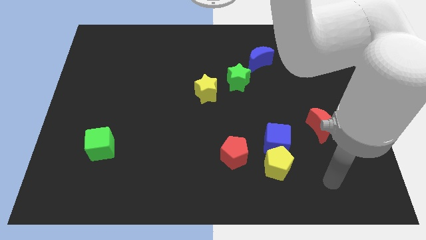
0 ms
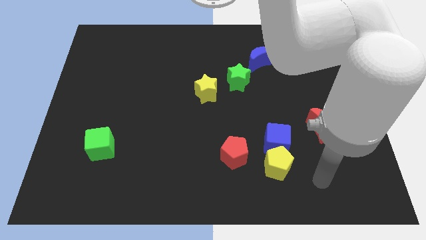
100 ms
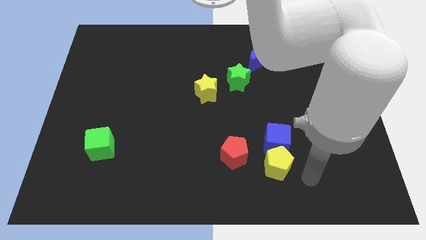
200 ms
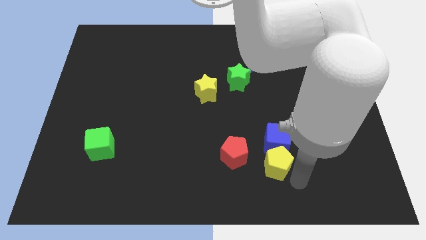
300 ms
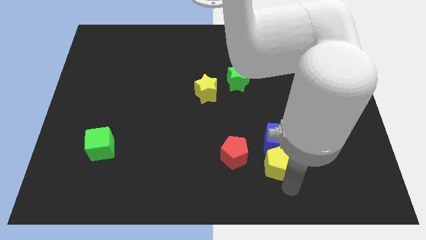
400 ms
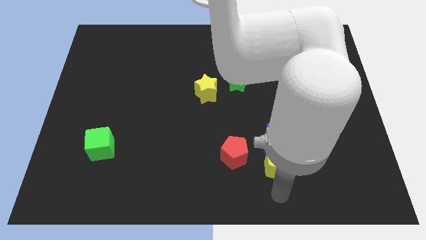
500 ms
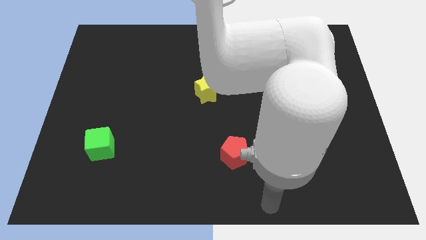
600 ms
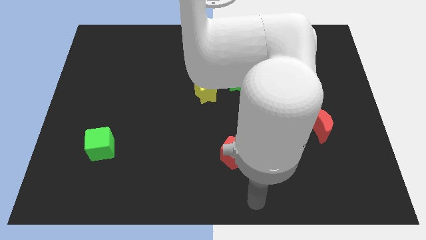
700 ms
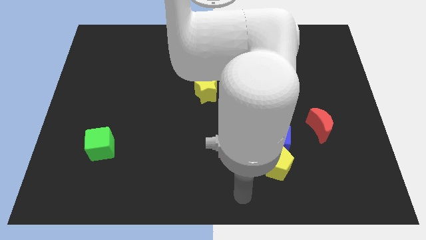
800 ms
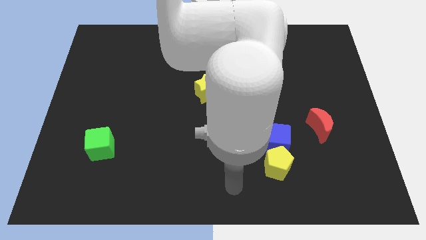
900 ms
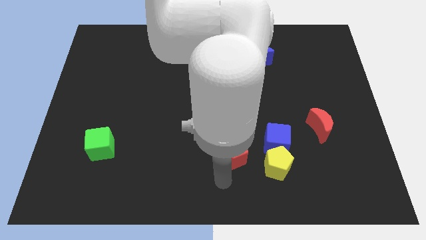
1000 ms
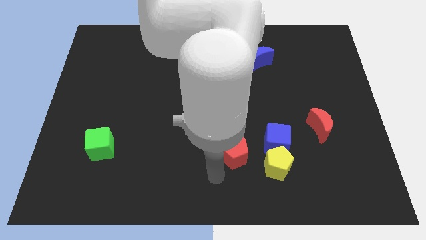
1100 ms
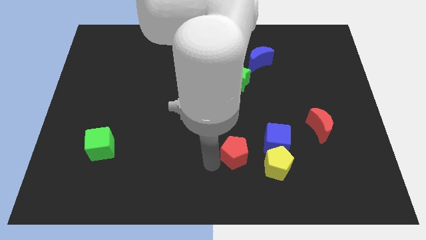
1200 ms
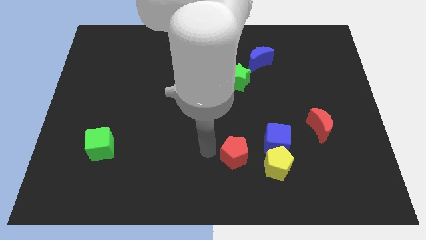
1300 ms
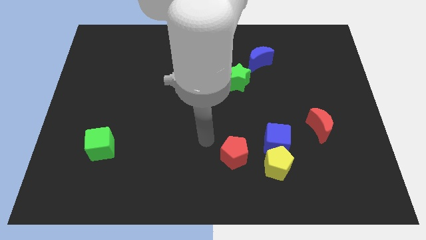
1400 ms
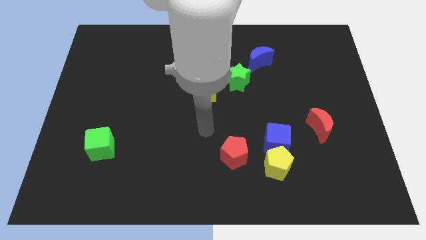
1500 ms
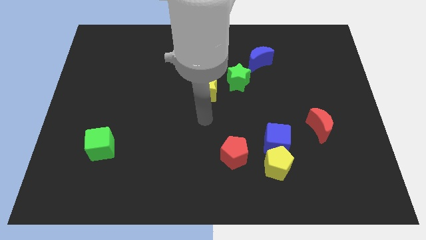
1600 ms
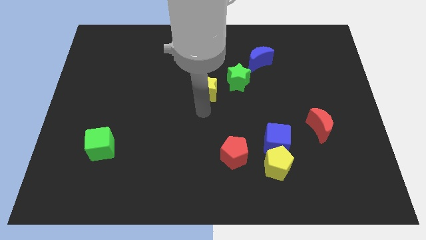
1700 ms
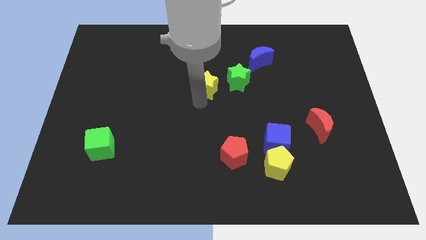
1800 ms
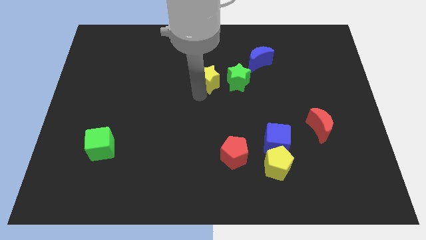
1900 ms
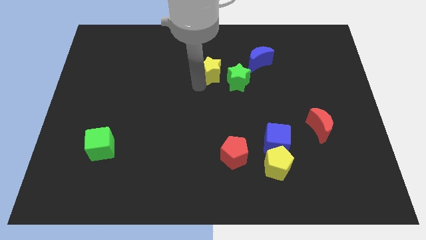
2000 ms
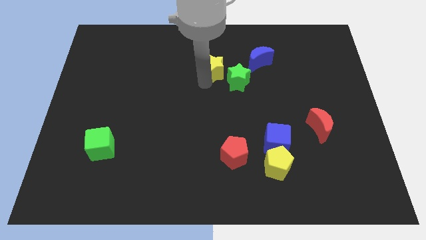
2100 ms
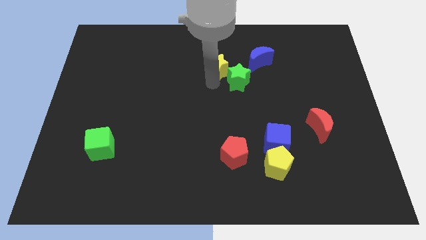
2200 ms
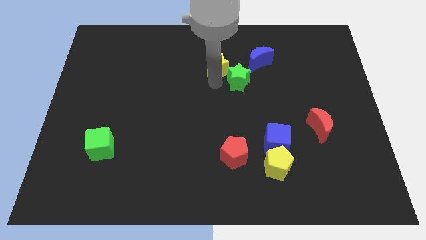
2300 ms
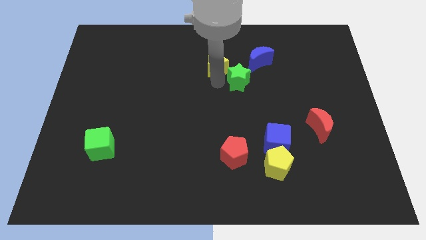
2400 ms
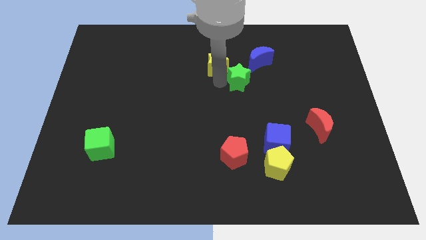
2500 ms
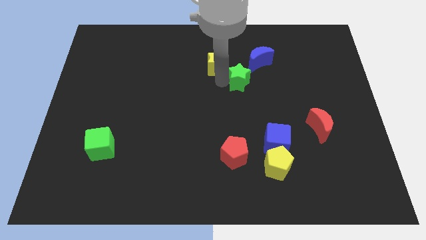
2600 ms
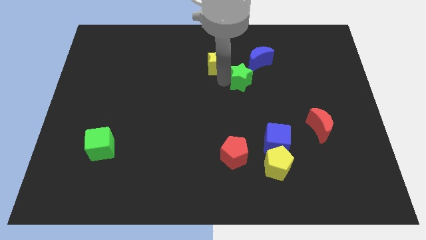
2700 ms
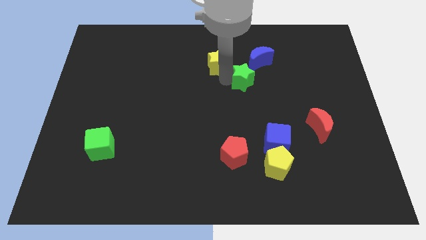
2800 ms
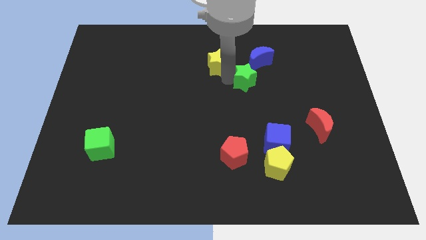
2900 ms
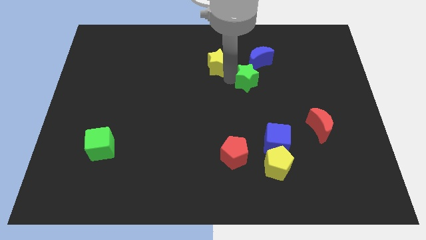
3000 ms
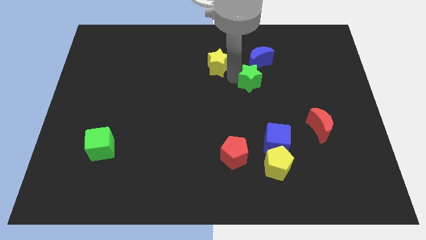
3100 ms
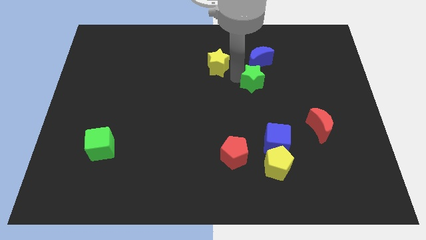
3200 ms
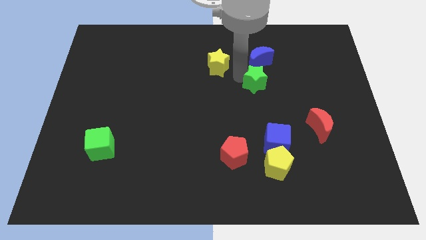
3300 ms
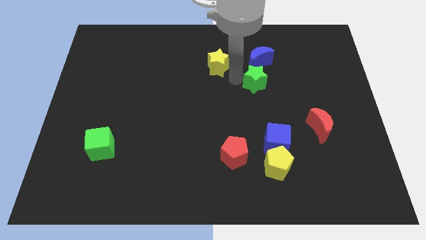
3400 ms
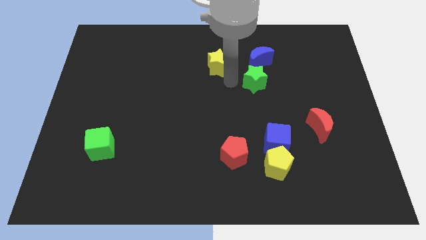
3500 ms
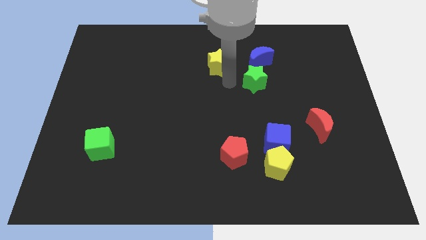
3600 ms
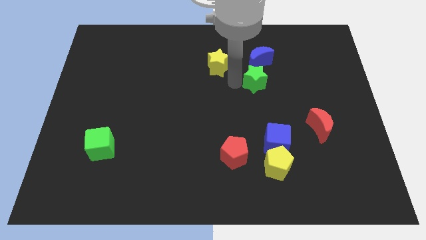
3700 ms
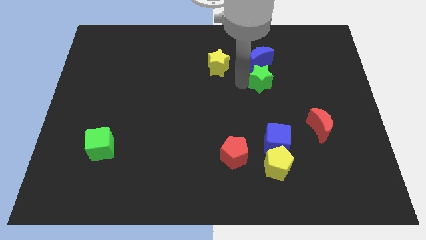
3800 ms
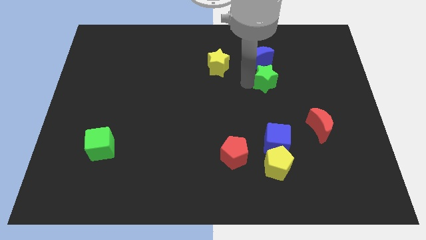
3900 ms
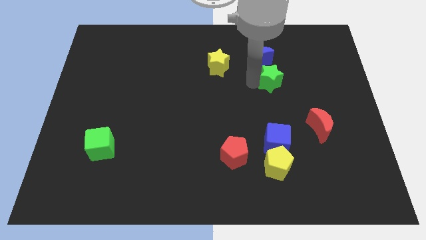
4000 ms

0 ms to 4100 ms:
slide the green star a bit right

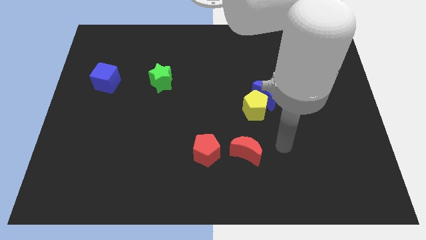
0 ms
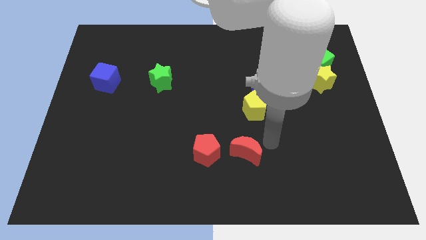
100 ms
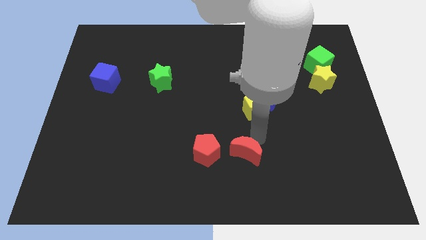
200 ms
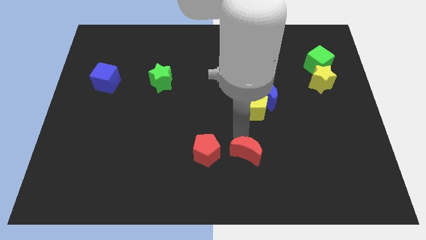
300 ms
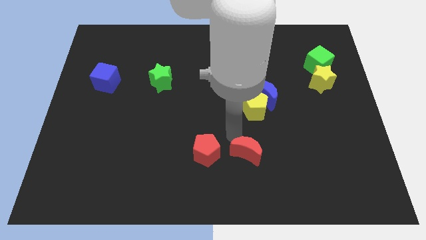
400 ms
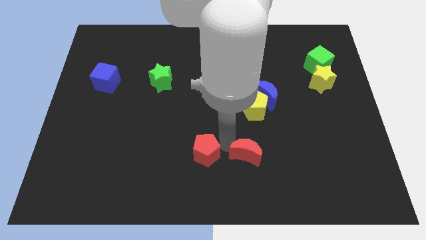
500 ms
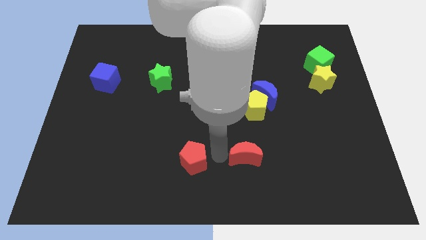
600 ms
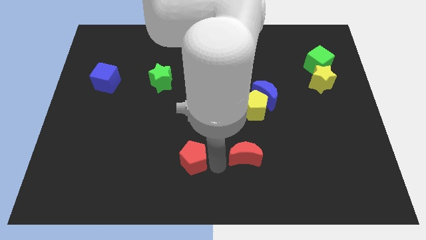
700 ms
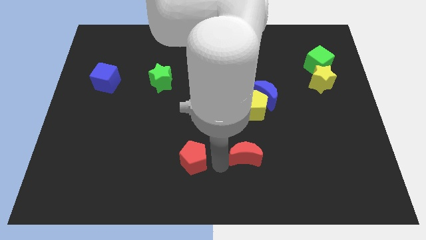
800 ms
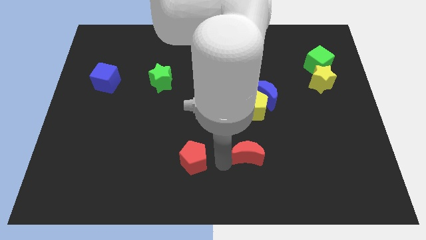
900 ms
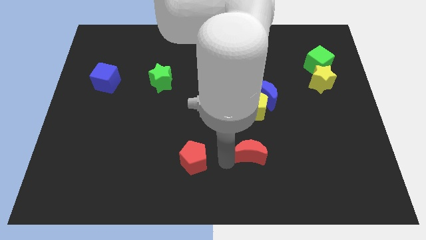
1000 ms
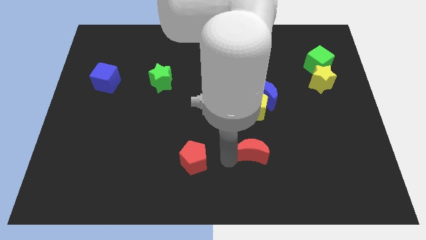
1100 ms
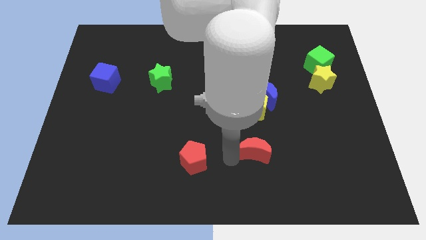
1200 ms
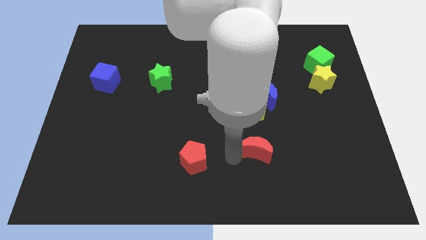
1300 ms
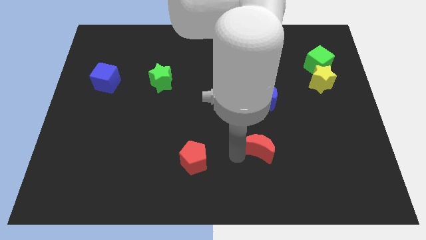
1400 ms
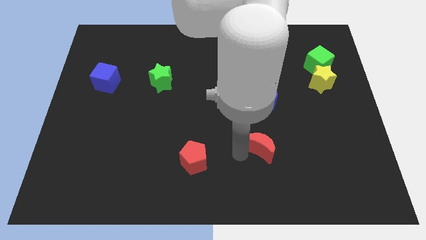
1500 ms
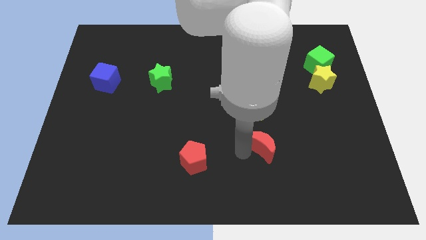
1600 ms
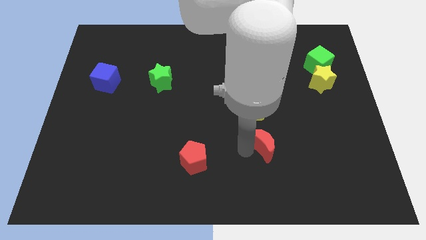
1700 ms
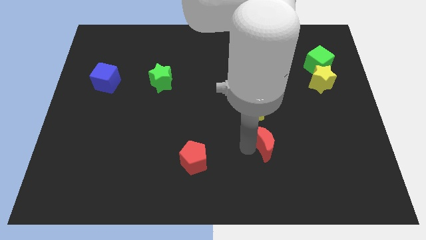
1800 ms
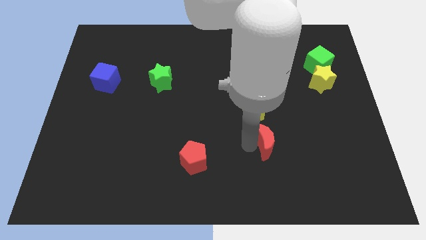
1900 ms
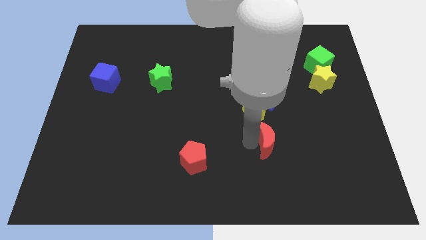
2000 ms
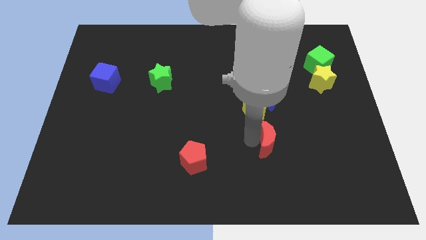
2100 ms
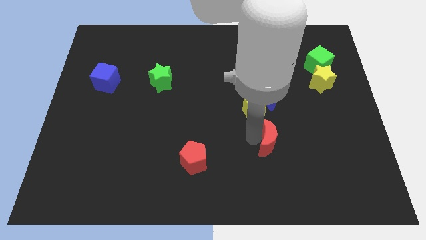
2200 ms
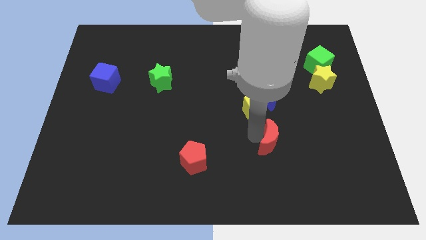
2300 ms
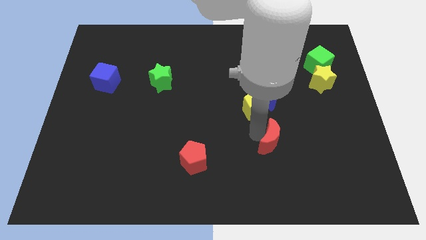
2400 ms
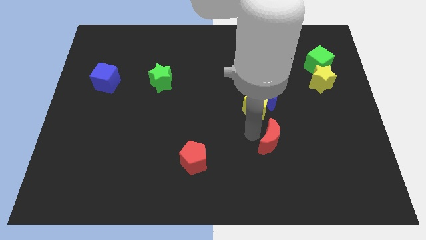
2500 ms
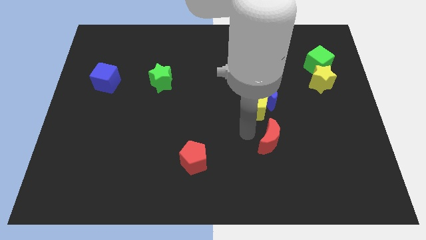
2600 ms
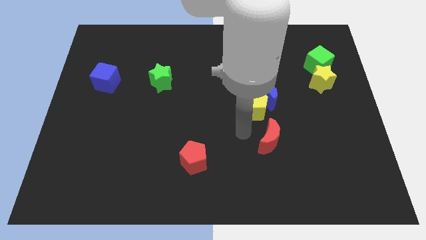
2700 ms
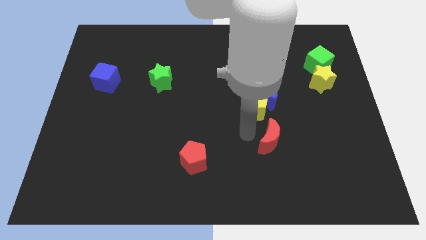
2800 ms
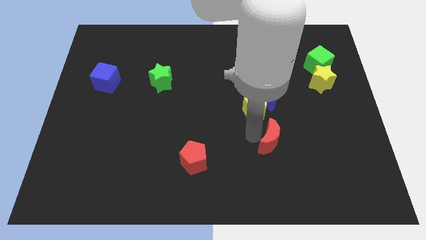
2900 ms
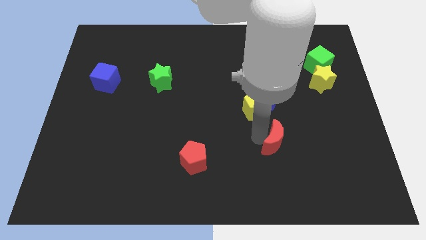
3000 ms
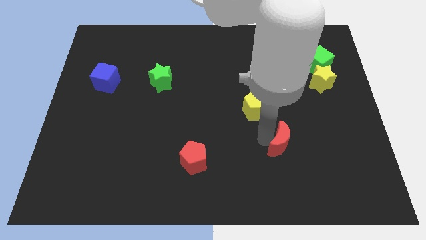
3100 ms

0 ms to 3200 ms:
move the red moon slightly right

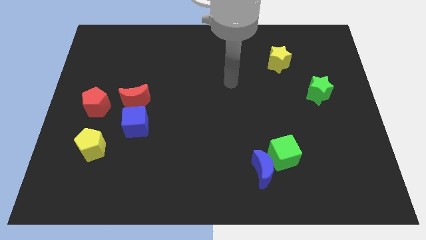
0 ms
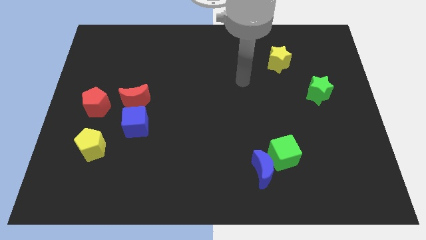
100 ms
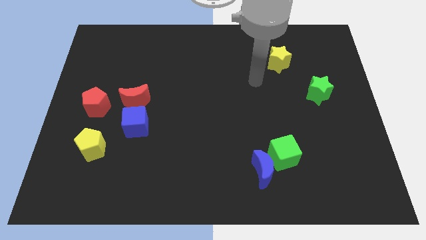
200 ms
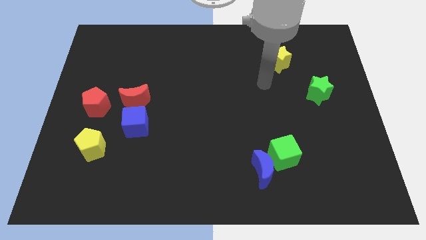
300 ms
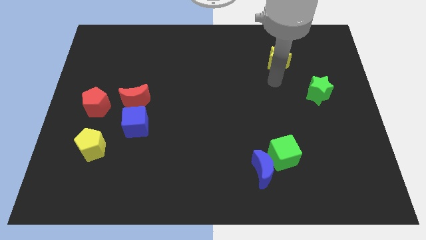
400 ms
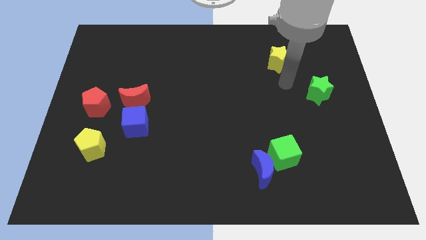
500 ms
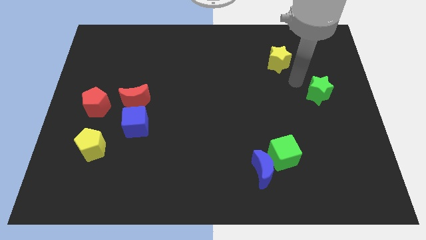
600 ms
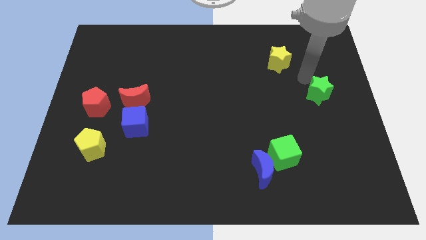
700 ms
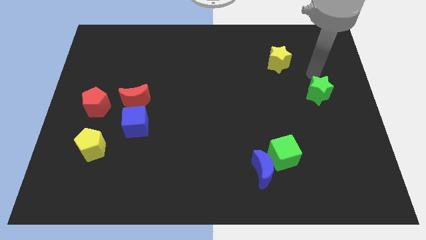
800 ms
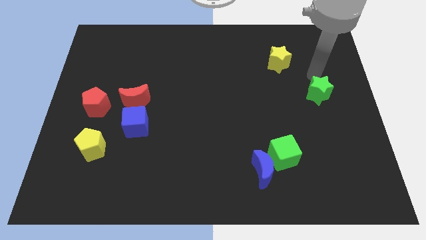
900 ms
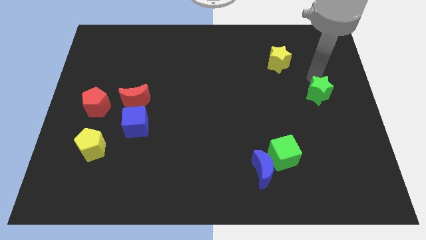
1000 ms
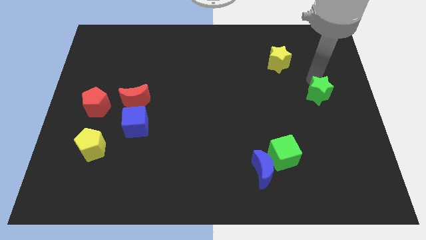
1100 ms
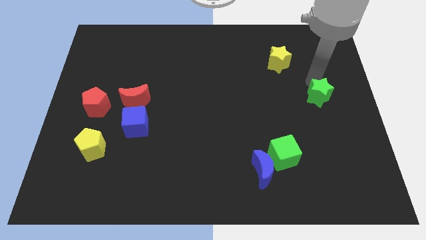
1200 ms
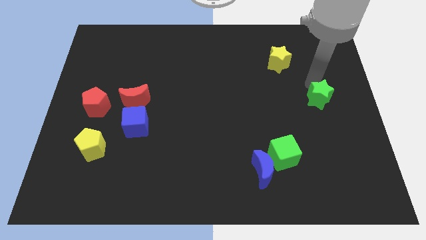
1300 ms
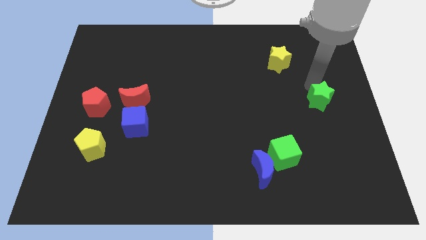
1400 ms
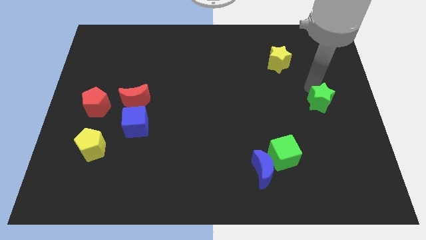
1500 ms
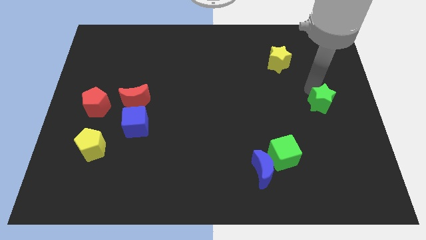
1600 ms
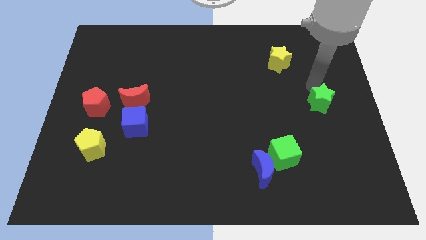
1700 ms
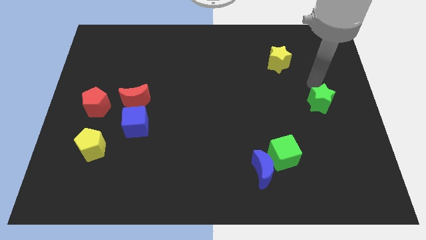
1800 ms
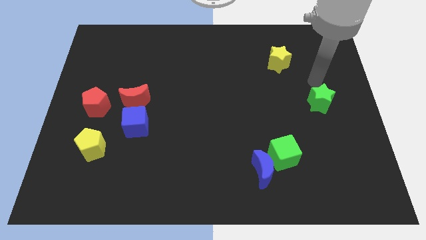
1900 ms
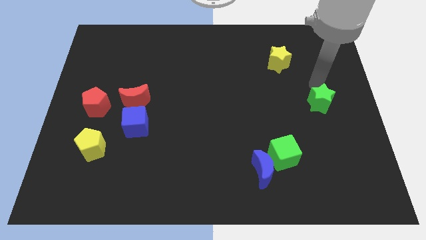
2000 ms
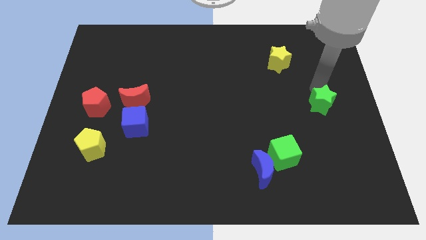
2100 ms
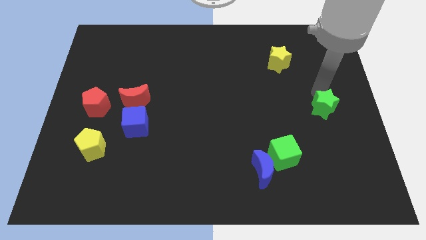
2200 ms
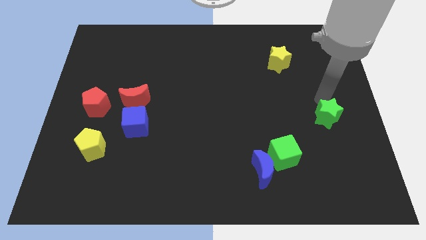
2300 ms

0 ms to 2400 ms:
slide the green star somewhat downwards
